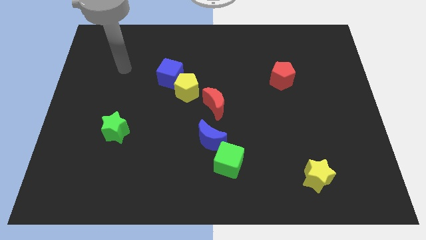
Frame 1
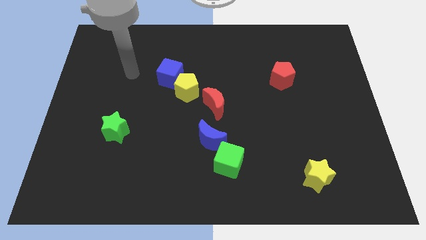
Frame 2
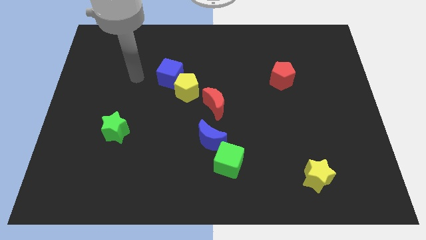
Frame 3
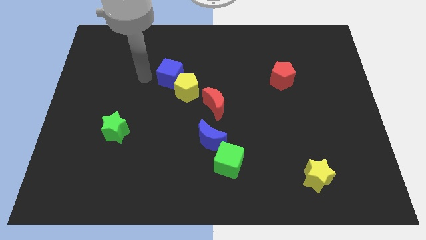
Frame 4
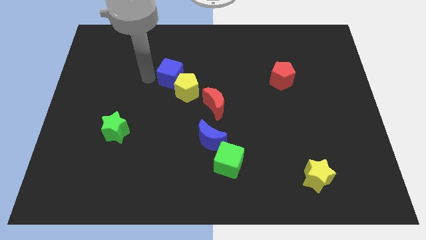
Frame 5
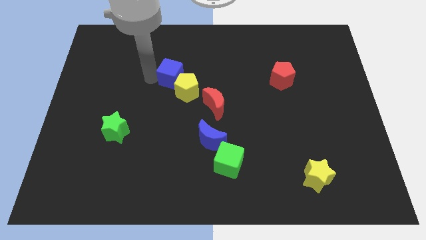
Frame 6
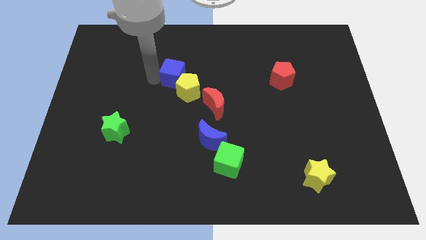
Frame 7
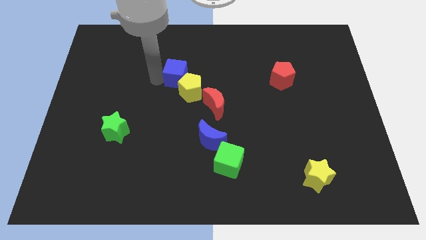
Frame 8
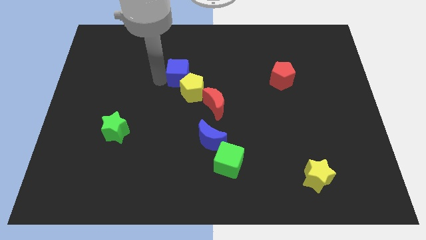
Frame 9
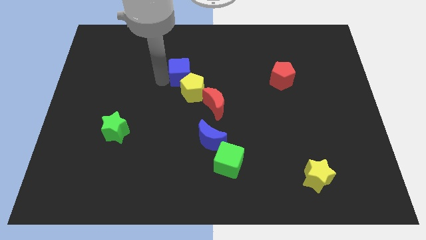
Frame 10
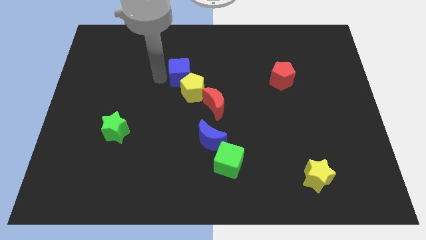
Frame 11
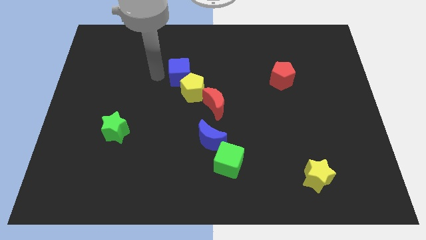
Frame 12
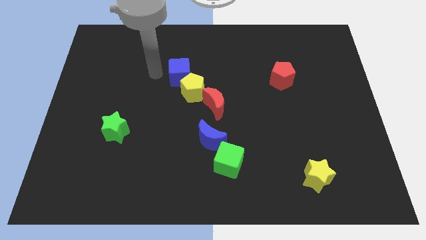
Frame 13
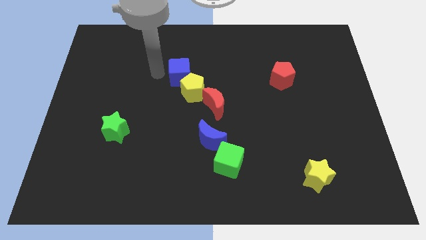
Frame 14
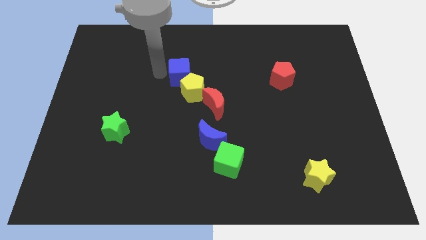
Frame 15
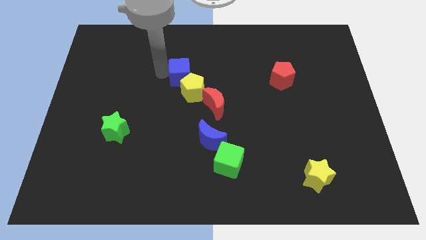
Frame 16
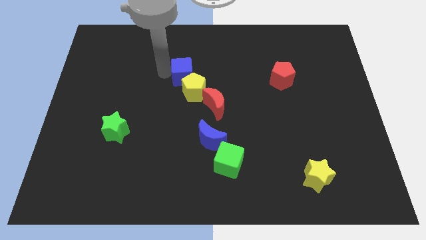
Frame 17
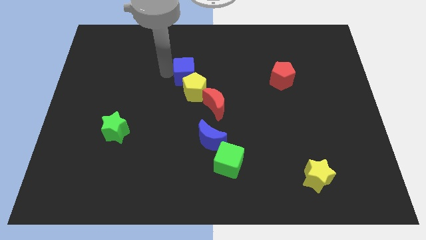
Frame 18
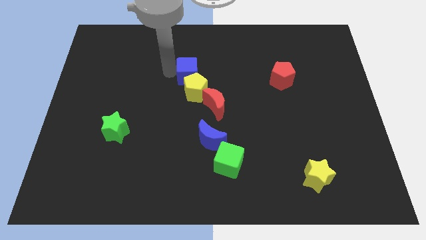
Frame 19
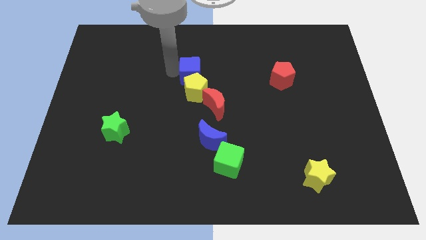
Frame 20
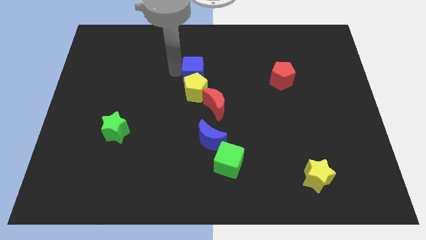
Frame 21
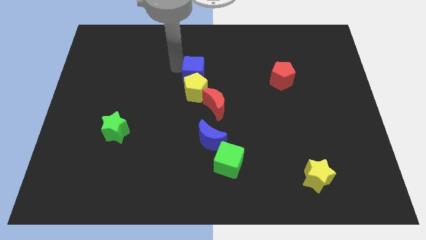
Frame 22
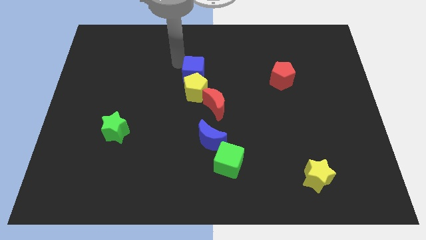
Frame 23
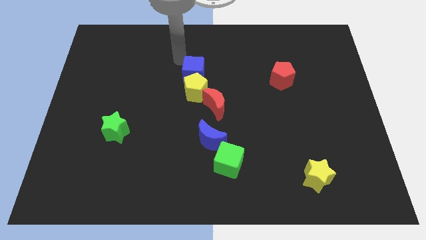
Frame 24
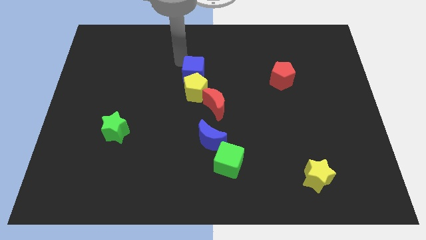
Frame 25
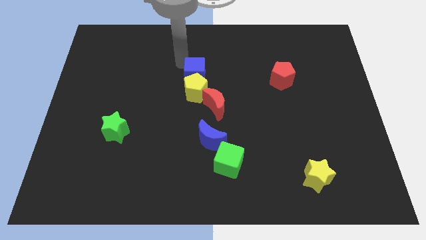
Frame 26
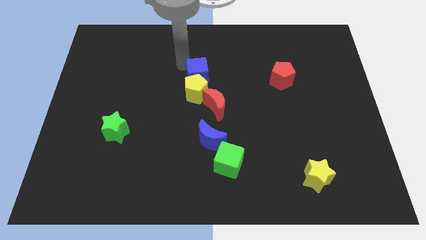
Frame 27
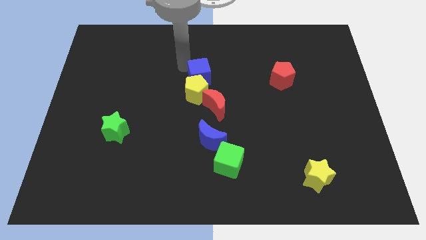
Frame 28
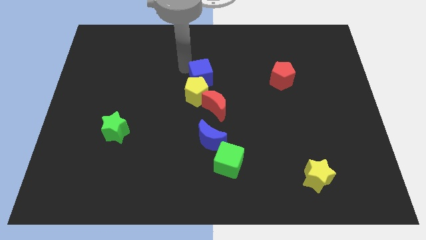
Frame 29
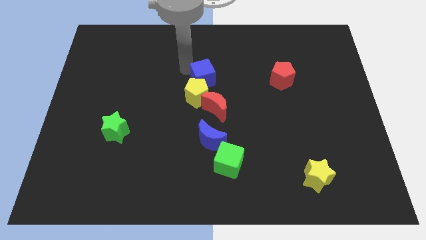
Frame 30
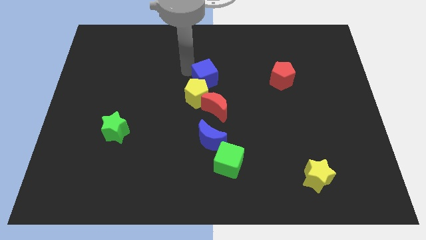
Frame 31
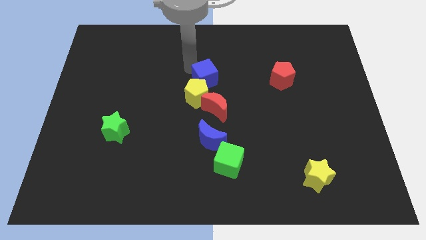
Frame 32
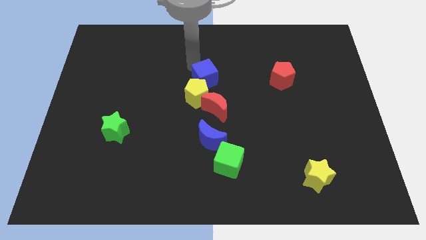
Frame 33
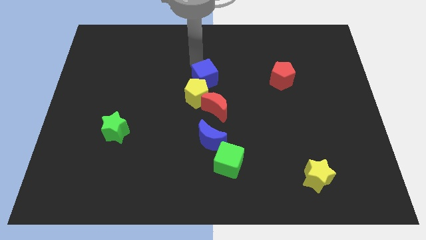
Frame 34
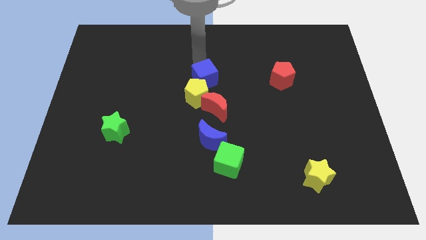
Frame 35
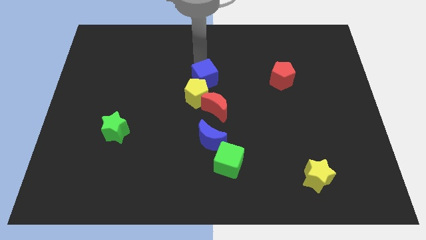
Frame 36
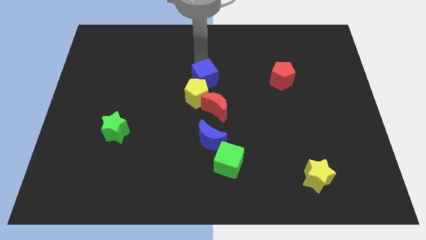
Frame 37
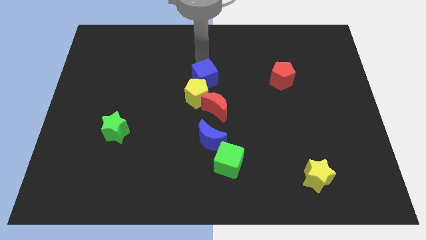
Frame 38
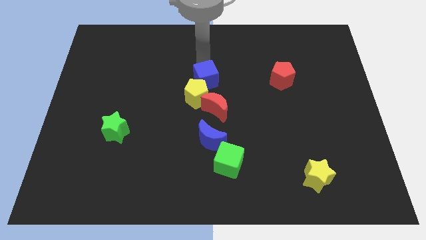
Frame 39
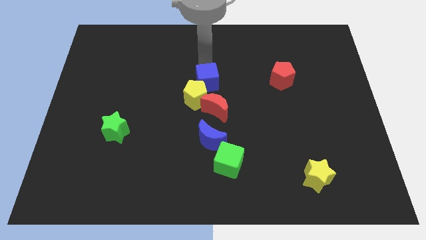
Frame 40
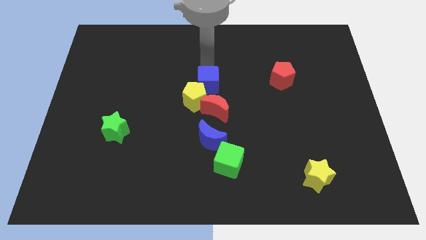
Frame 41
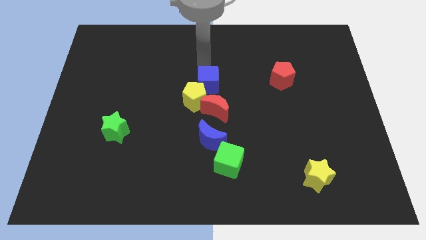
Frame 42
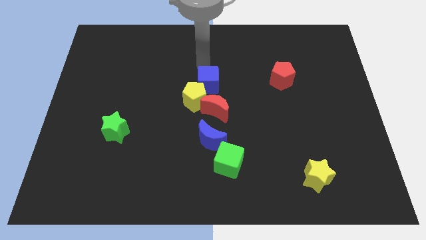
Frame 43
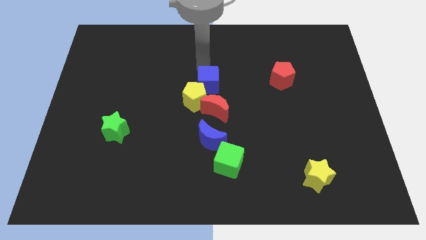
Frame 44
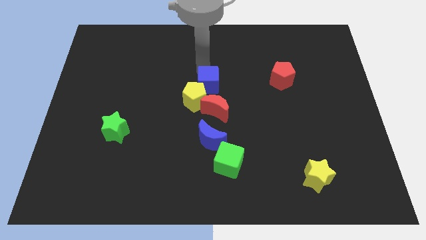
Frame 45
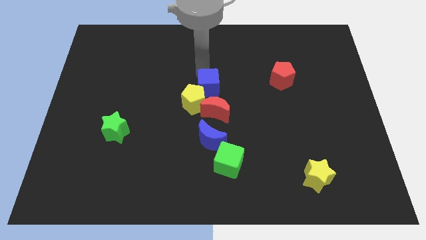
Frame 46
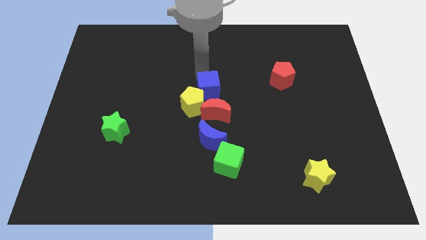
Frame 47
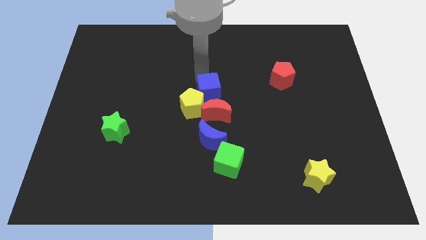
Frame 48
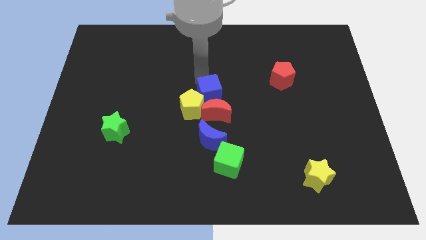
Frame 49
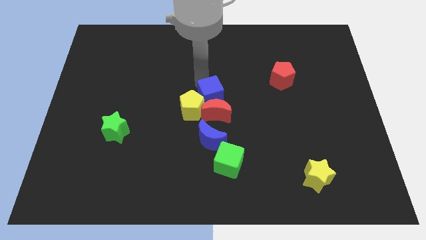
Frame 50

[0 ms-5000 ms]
put the blue cube towards the red moon

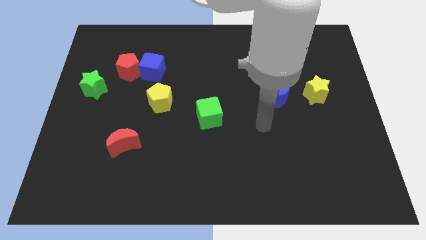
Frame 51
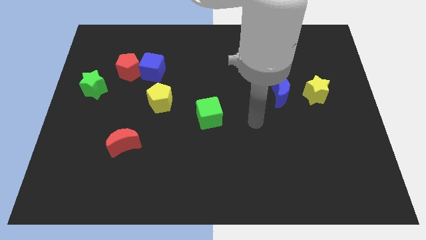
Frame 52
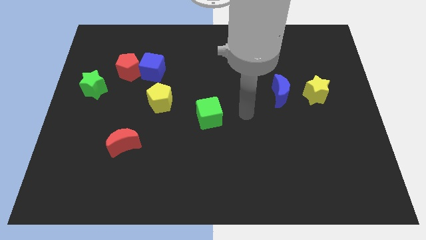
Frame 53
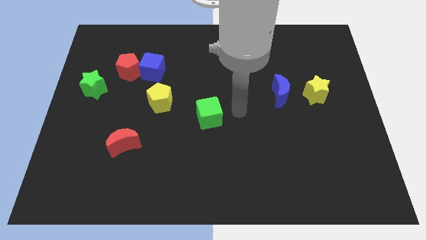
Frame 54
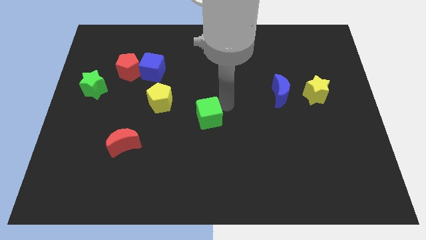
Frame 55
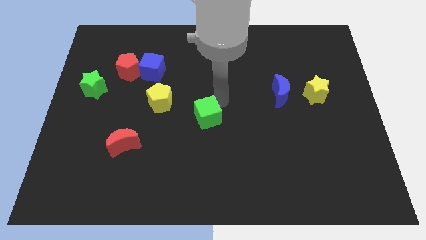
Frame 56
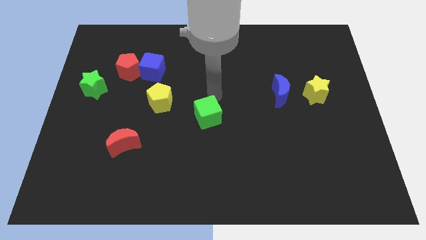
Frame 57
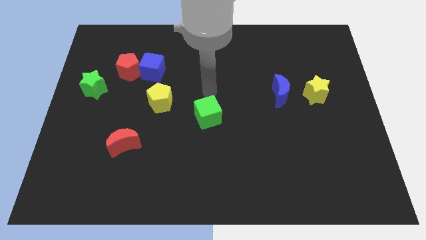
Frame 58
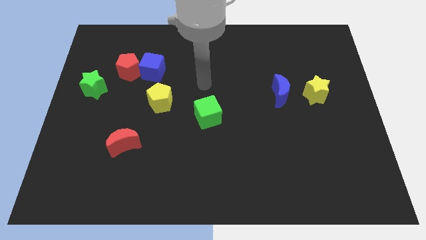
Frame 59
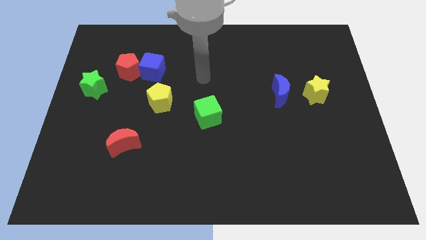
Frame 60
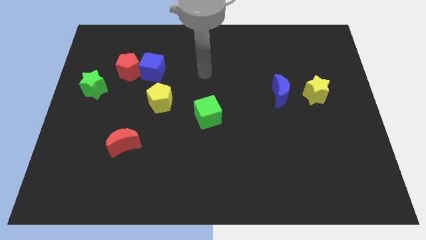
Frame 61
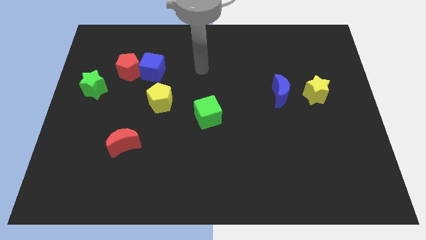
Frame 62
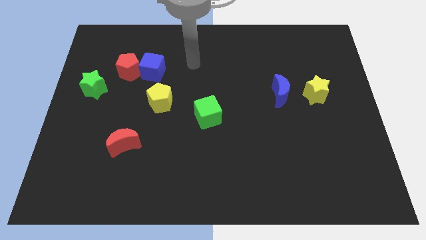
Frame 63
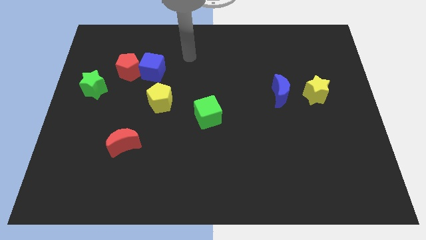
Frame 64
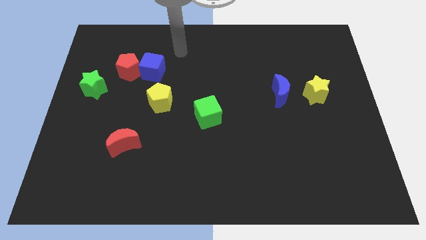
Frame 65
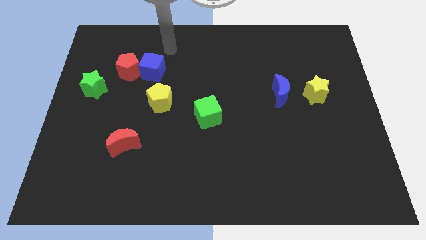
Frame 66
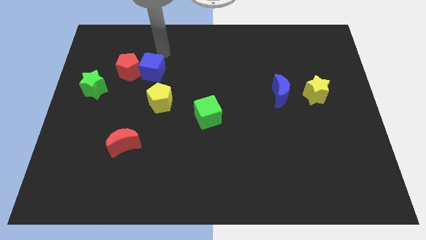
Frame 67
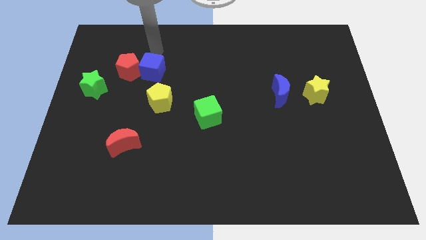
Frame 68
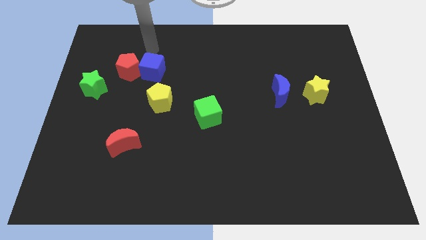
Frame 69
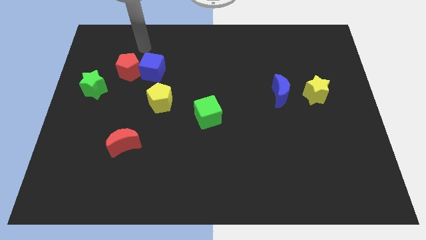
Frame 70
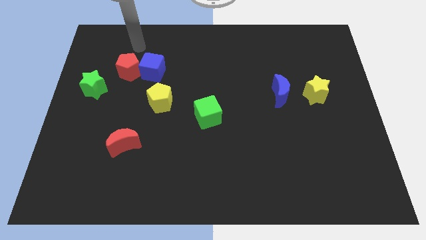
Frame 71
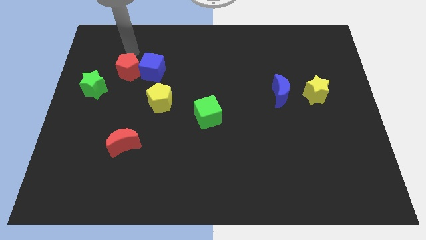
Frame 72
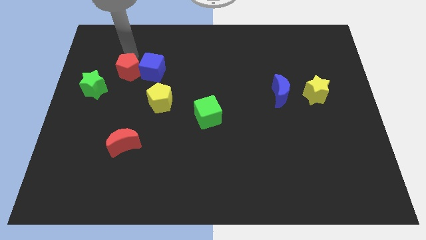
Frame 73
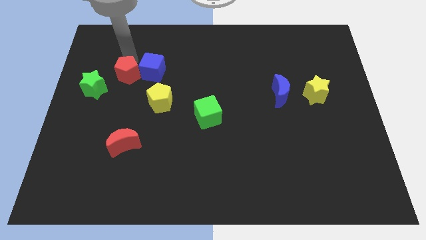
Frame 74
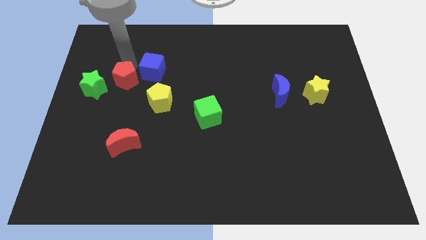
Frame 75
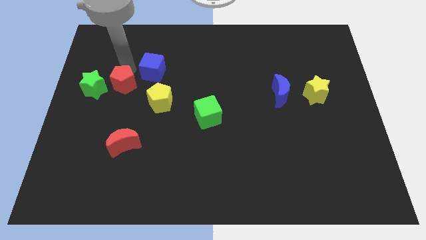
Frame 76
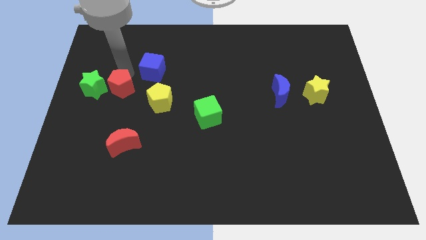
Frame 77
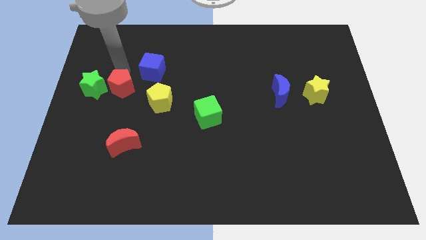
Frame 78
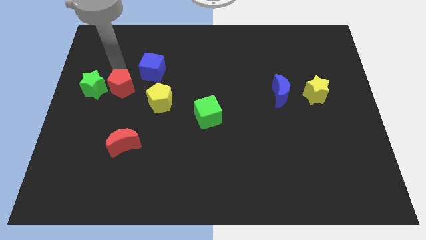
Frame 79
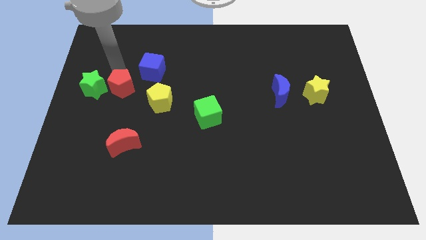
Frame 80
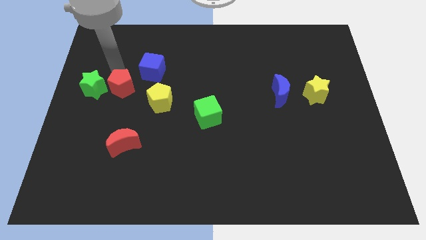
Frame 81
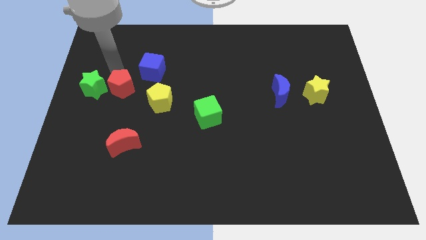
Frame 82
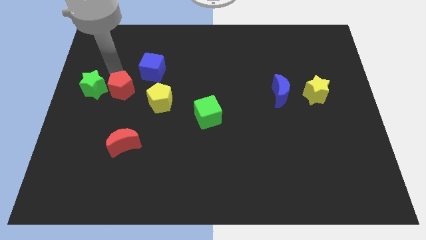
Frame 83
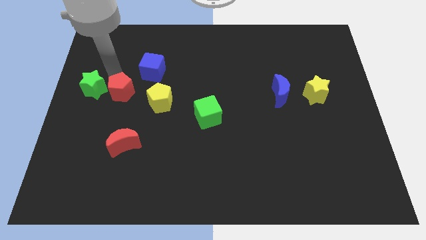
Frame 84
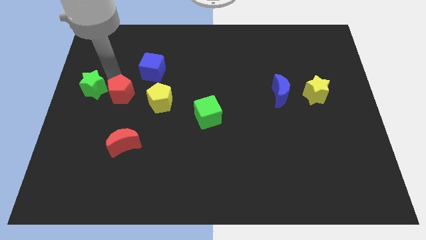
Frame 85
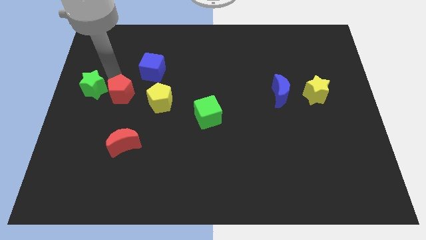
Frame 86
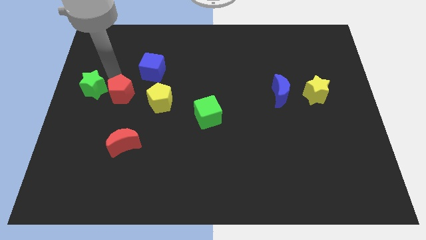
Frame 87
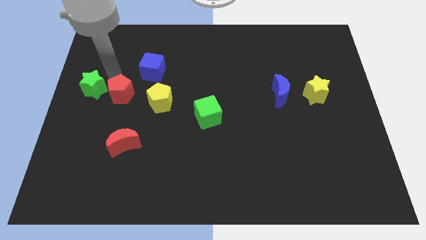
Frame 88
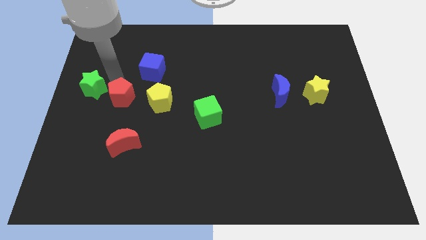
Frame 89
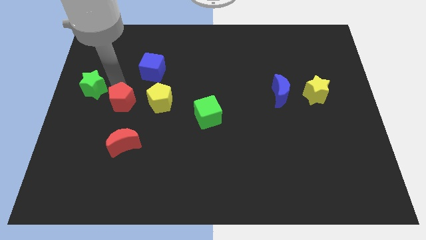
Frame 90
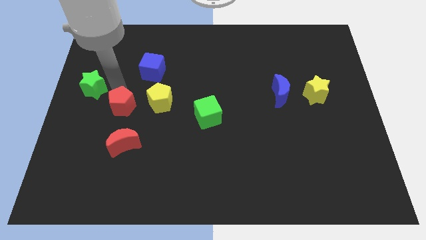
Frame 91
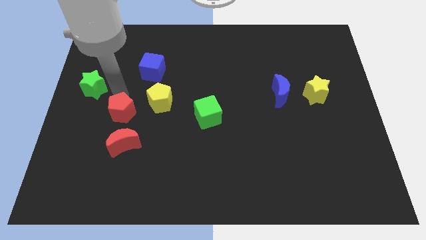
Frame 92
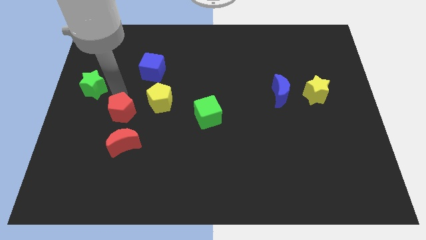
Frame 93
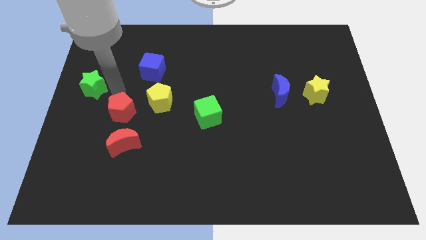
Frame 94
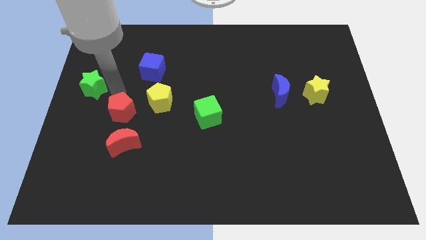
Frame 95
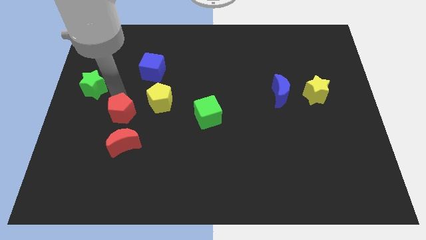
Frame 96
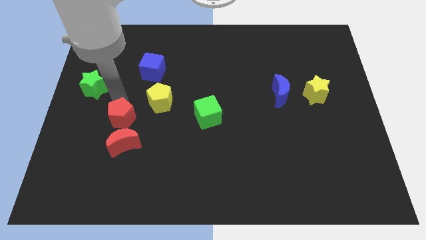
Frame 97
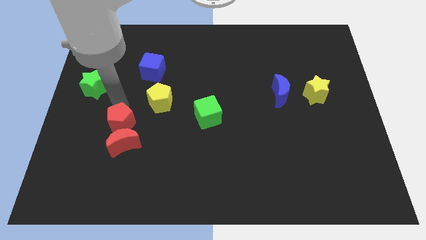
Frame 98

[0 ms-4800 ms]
move the red pentagon close to the red moon
